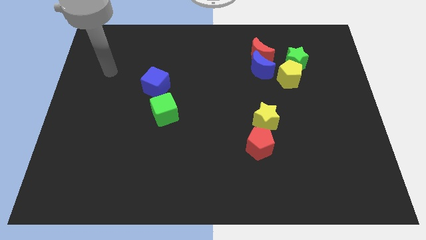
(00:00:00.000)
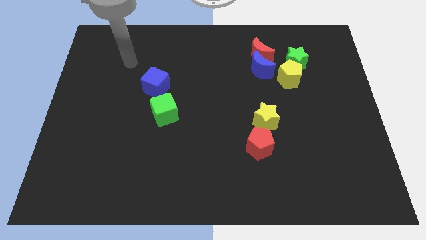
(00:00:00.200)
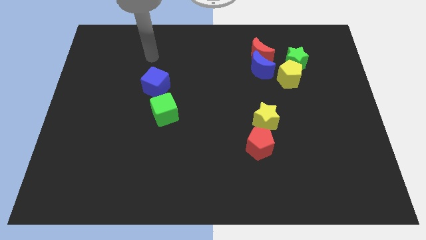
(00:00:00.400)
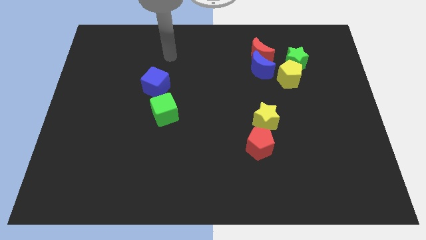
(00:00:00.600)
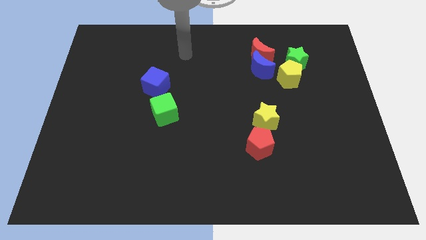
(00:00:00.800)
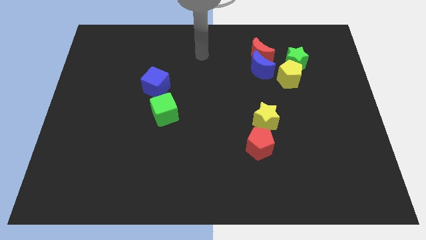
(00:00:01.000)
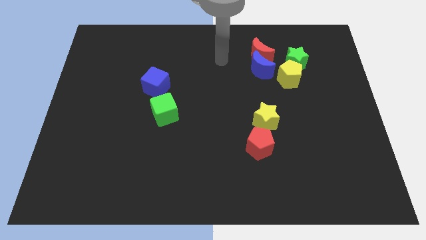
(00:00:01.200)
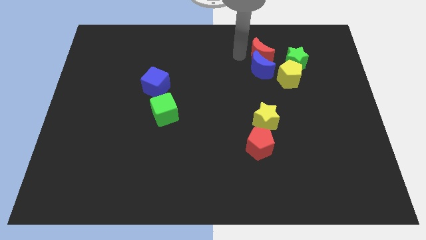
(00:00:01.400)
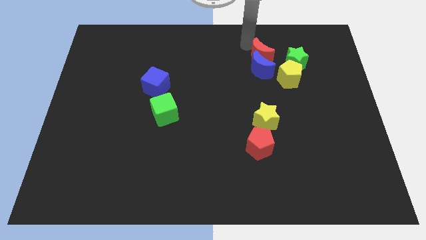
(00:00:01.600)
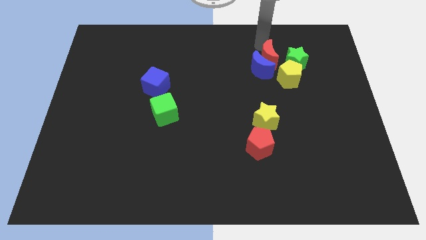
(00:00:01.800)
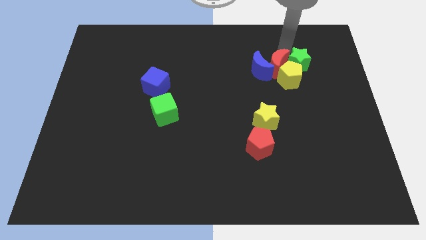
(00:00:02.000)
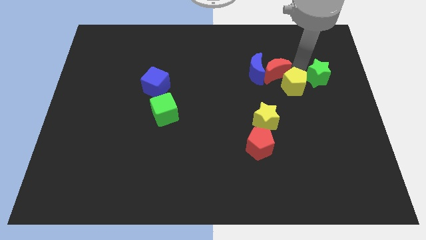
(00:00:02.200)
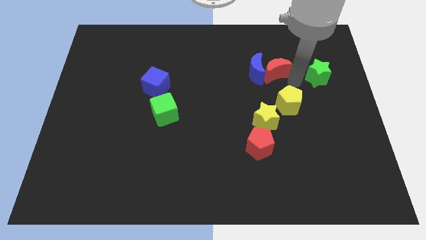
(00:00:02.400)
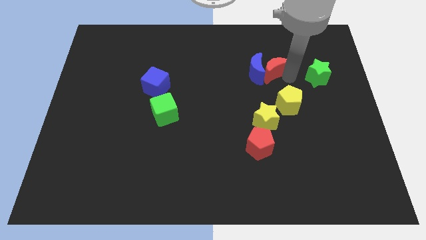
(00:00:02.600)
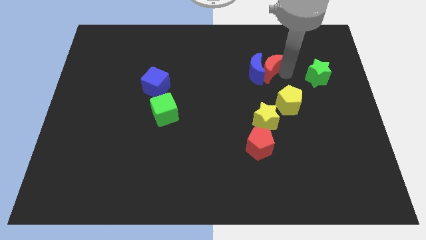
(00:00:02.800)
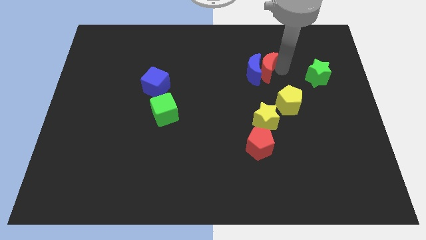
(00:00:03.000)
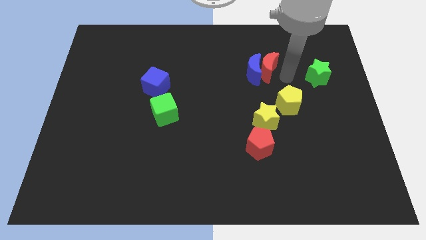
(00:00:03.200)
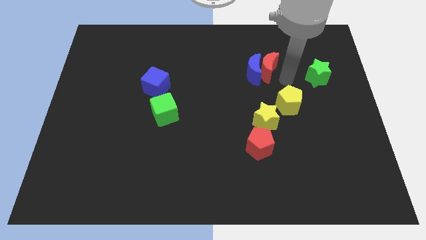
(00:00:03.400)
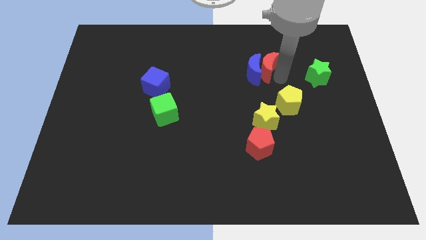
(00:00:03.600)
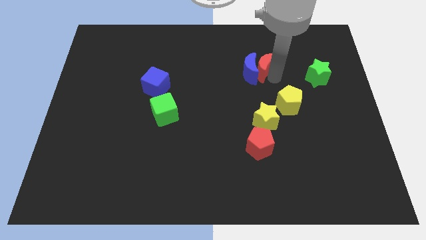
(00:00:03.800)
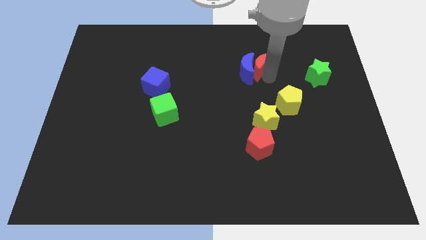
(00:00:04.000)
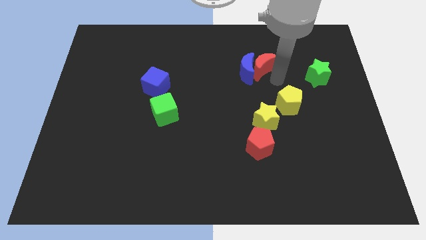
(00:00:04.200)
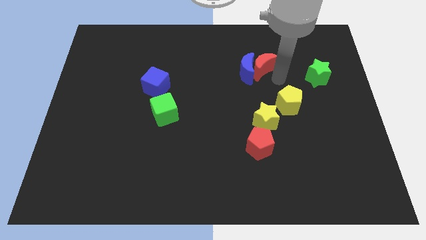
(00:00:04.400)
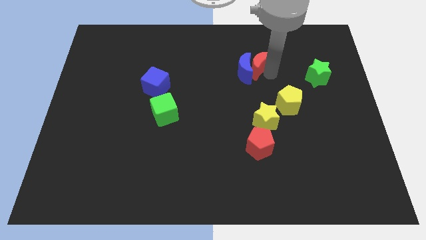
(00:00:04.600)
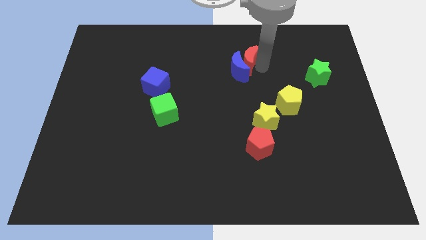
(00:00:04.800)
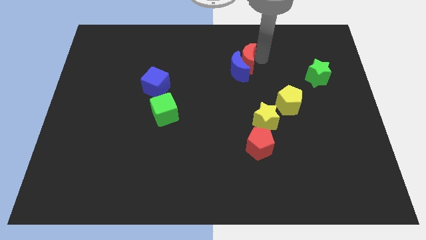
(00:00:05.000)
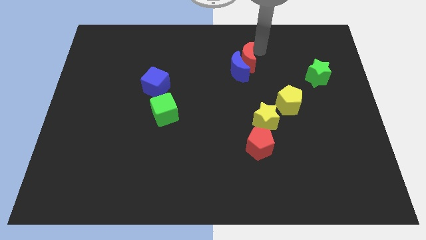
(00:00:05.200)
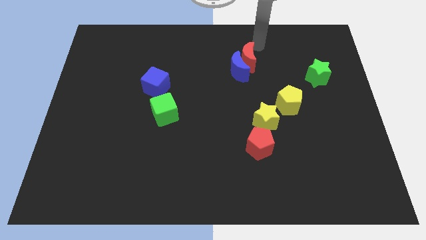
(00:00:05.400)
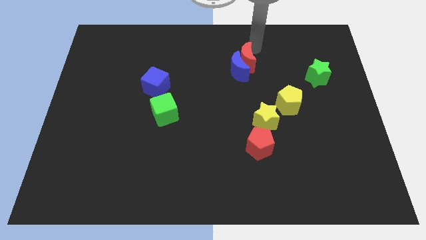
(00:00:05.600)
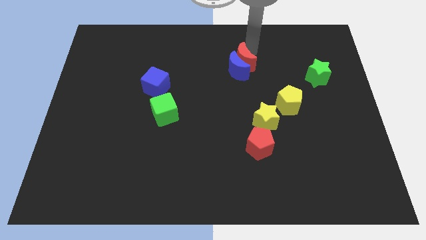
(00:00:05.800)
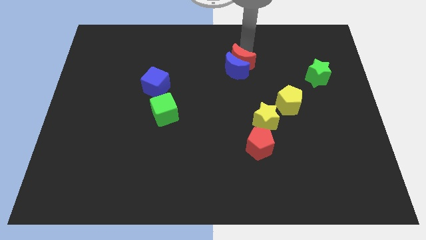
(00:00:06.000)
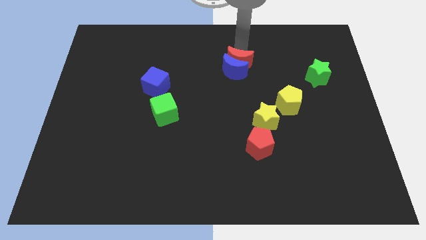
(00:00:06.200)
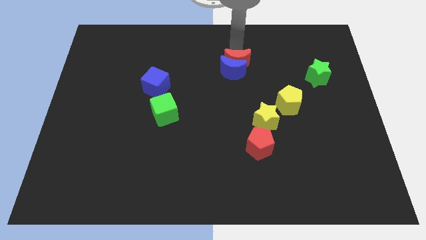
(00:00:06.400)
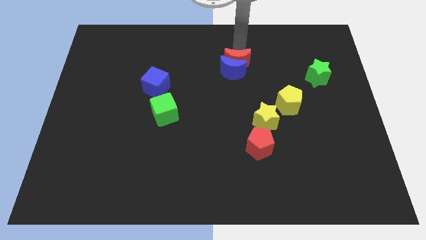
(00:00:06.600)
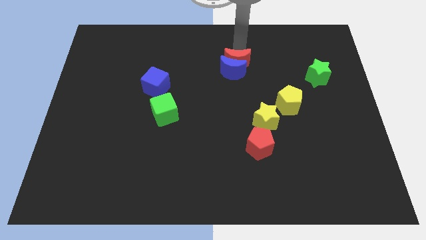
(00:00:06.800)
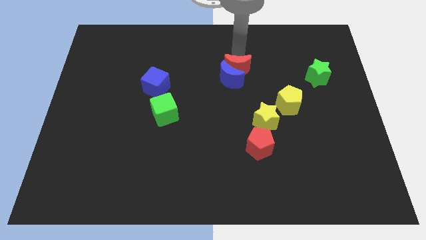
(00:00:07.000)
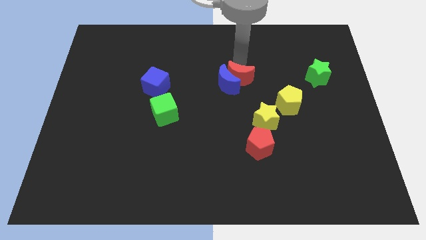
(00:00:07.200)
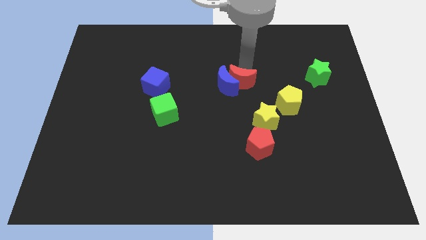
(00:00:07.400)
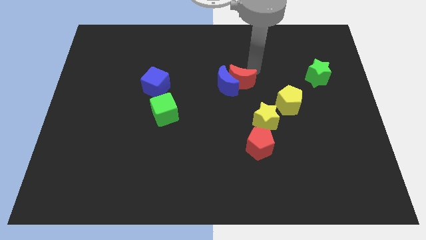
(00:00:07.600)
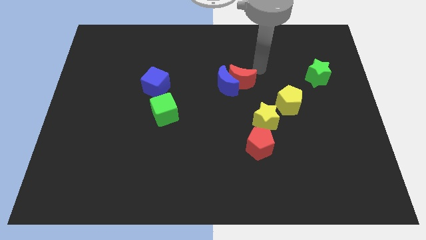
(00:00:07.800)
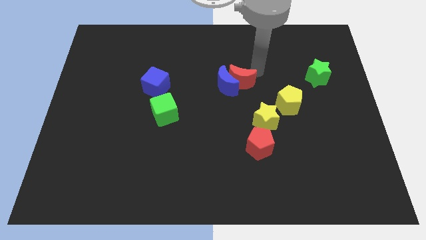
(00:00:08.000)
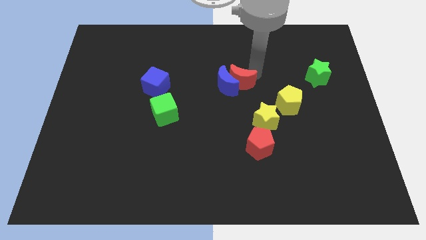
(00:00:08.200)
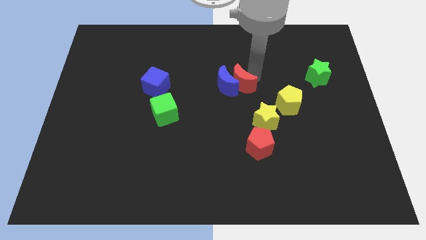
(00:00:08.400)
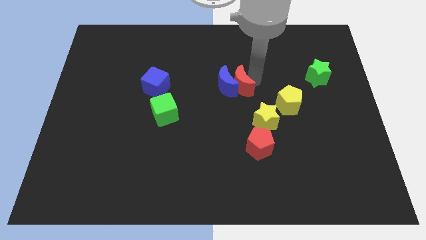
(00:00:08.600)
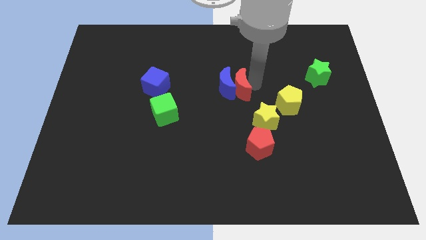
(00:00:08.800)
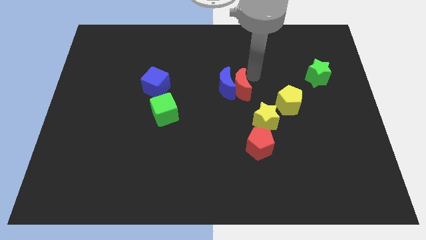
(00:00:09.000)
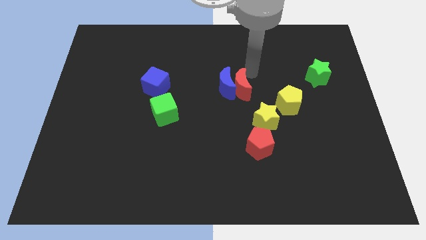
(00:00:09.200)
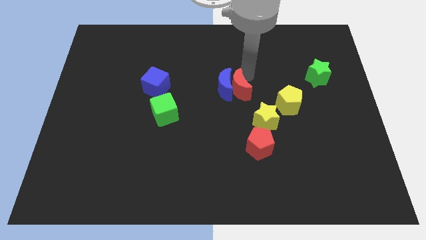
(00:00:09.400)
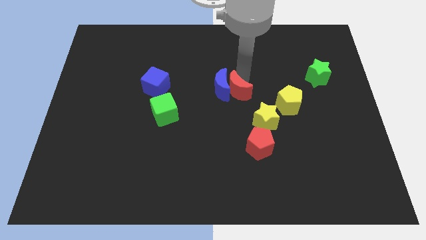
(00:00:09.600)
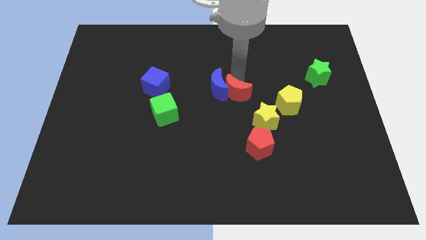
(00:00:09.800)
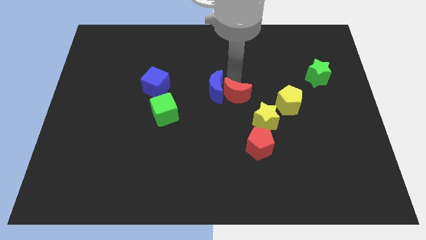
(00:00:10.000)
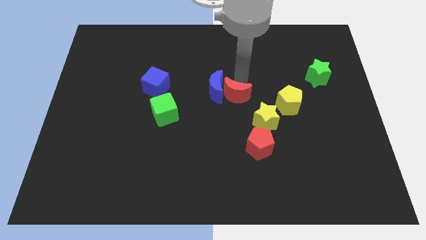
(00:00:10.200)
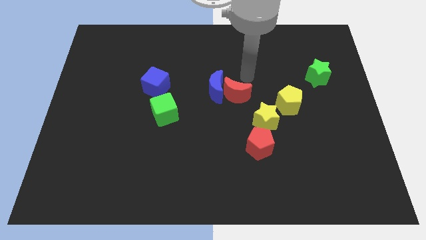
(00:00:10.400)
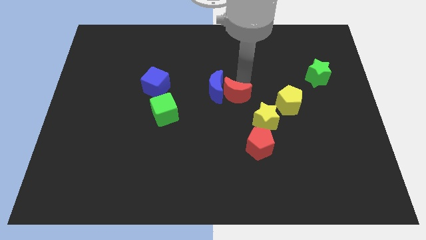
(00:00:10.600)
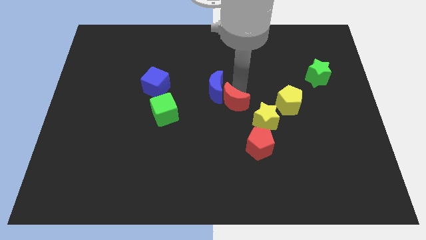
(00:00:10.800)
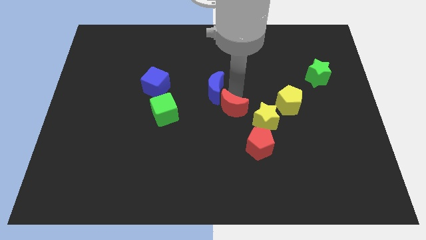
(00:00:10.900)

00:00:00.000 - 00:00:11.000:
put the red moon diagonally up and to the left of the red pentagon

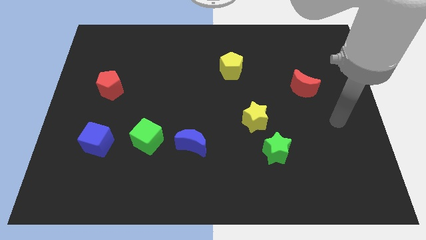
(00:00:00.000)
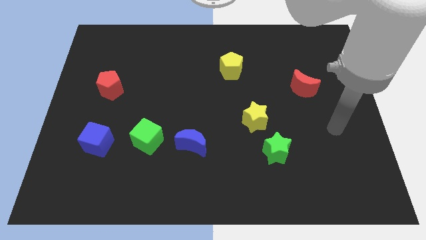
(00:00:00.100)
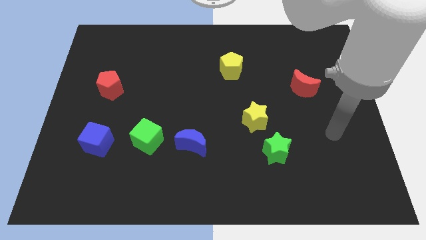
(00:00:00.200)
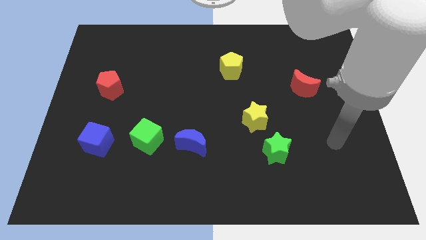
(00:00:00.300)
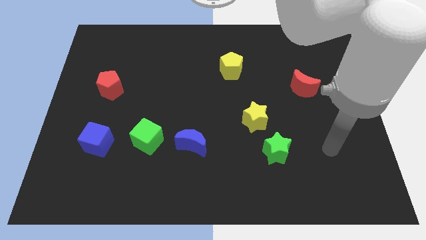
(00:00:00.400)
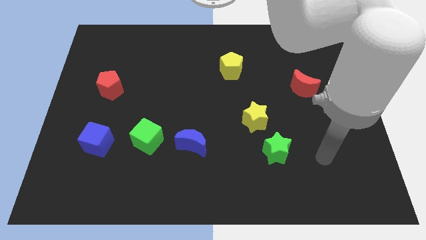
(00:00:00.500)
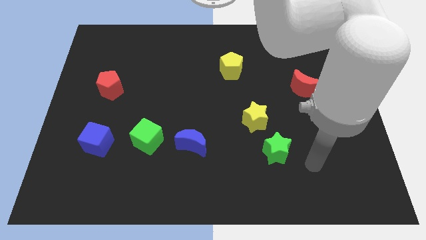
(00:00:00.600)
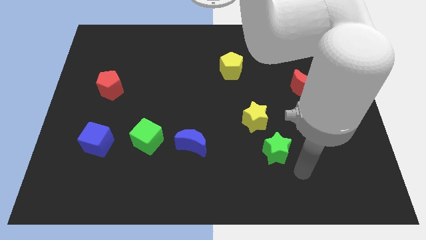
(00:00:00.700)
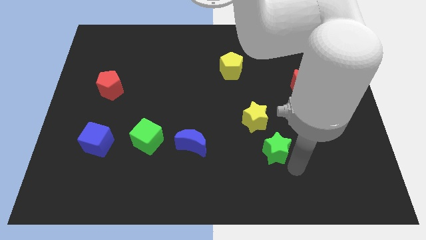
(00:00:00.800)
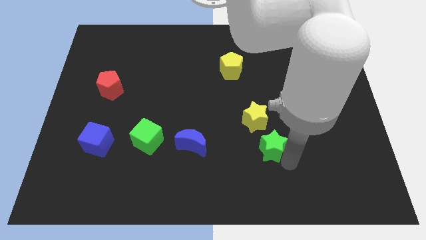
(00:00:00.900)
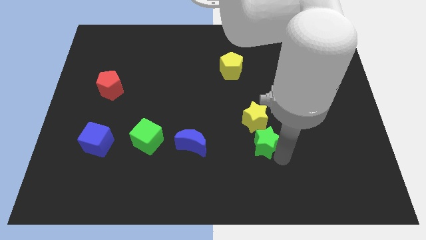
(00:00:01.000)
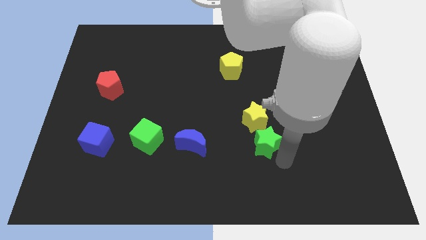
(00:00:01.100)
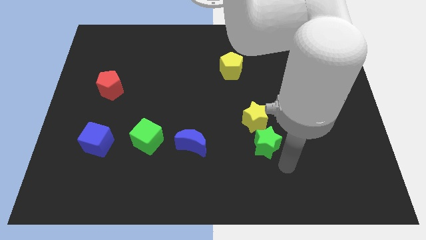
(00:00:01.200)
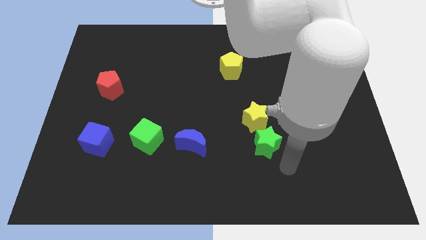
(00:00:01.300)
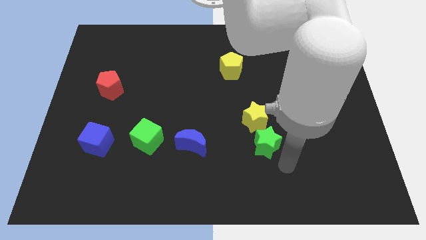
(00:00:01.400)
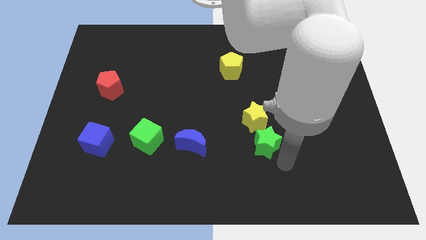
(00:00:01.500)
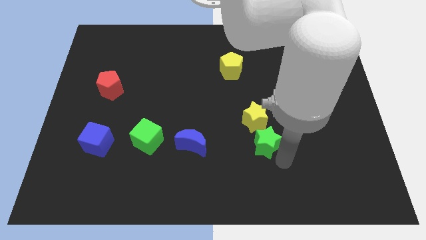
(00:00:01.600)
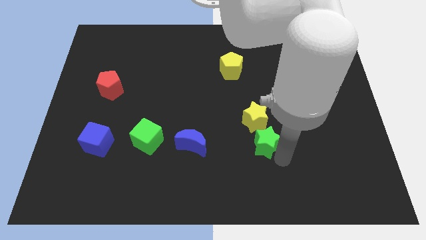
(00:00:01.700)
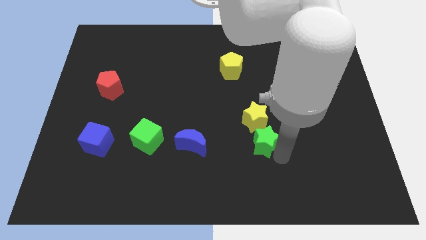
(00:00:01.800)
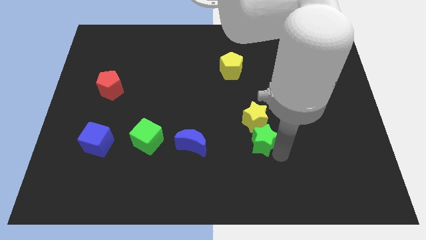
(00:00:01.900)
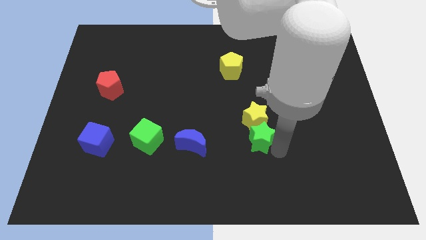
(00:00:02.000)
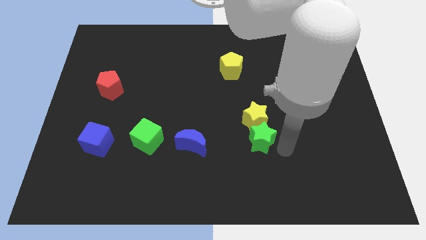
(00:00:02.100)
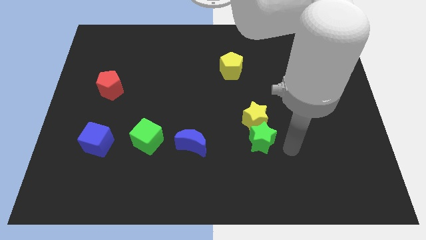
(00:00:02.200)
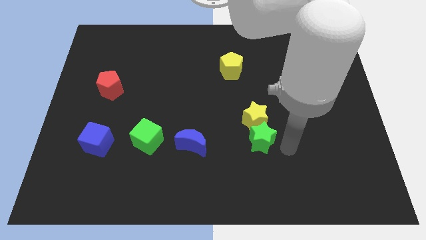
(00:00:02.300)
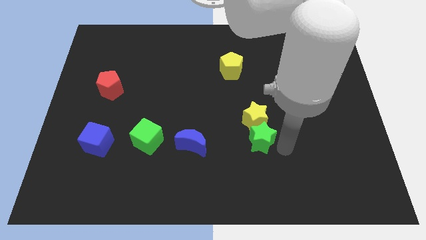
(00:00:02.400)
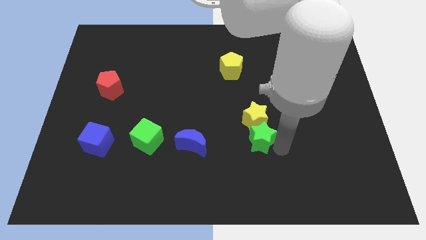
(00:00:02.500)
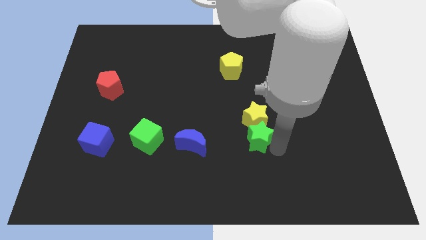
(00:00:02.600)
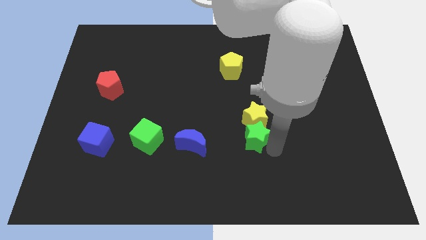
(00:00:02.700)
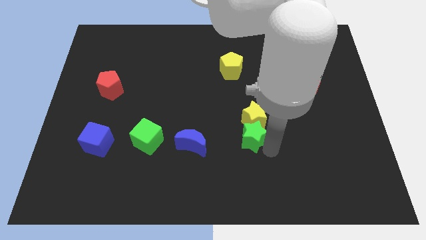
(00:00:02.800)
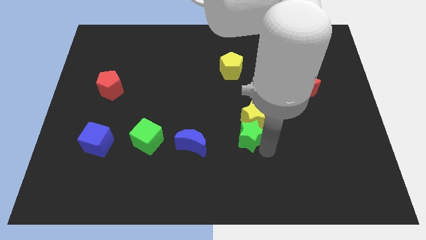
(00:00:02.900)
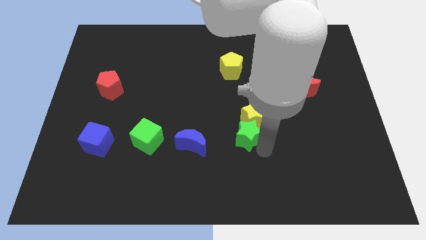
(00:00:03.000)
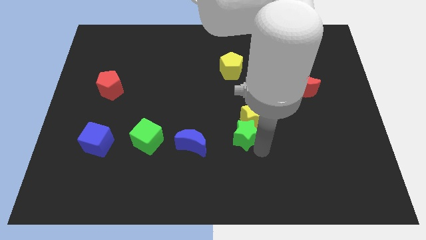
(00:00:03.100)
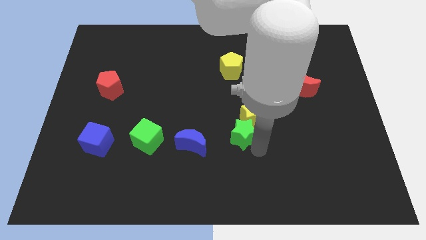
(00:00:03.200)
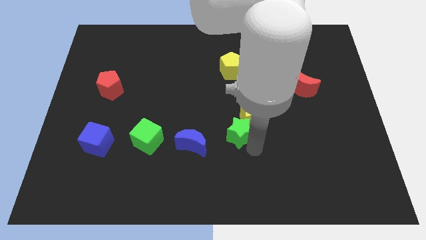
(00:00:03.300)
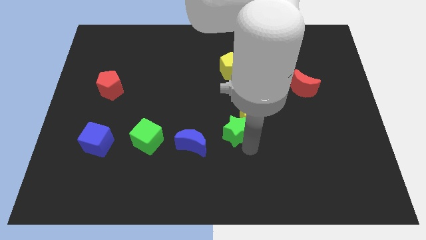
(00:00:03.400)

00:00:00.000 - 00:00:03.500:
push the green star to the left side of the yellow star
